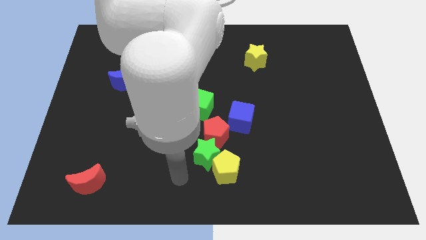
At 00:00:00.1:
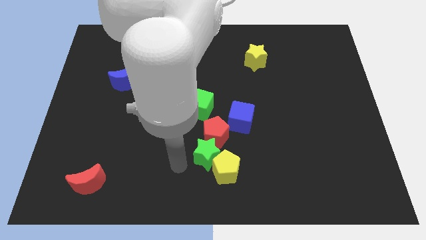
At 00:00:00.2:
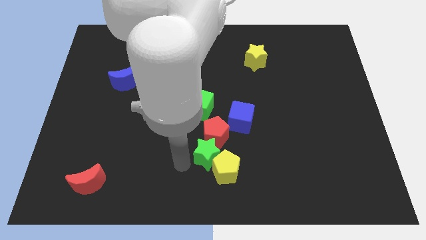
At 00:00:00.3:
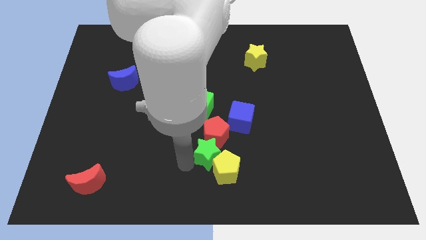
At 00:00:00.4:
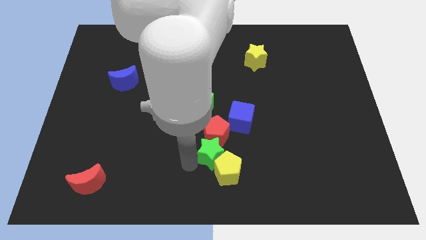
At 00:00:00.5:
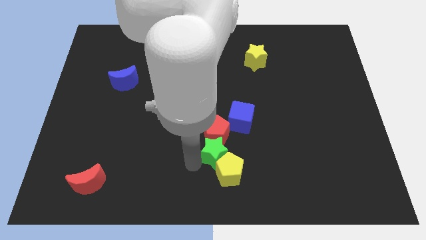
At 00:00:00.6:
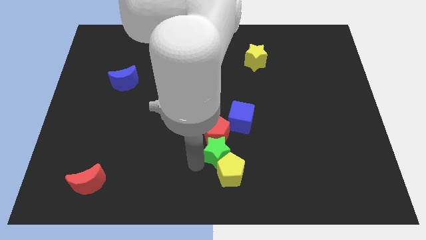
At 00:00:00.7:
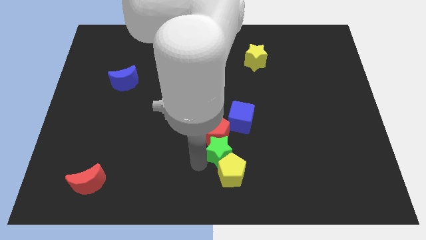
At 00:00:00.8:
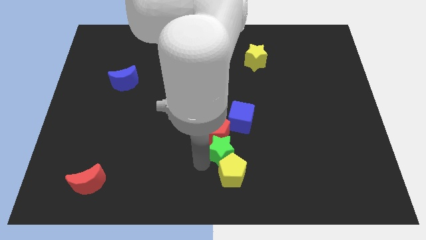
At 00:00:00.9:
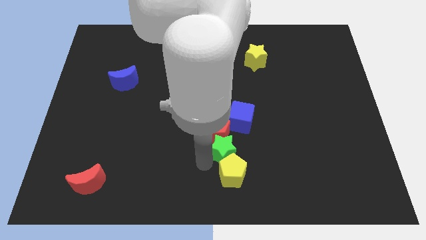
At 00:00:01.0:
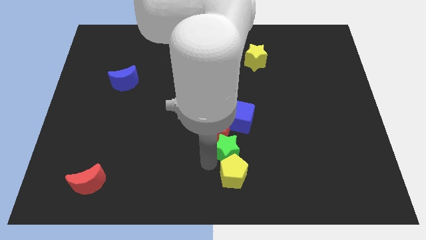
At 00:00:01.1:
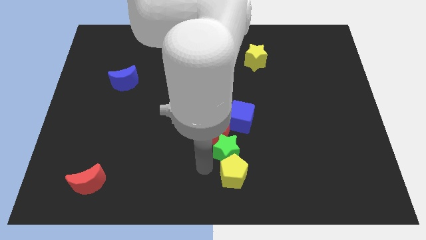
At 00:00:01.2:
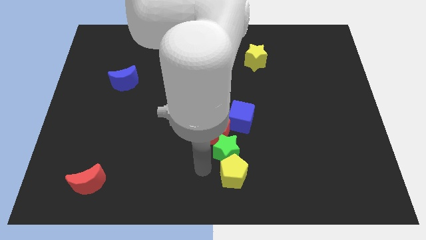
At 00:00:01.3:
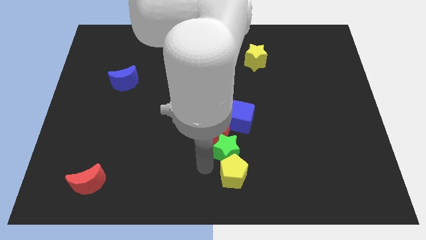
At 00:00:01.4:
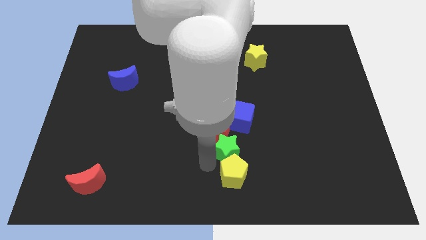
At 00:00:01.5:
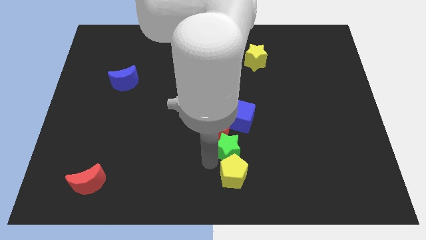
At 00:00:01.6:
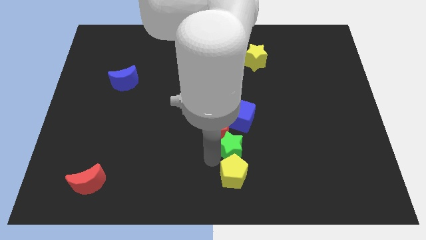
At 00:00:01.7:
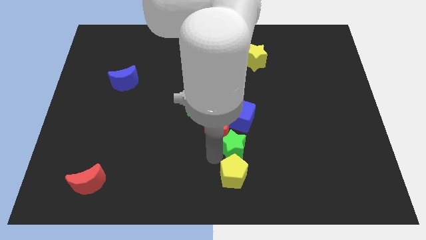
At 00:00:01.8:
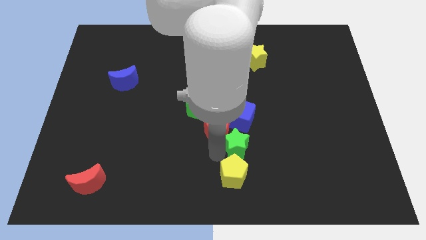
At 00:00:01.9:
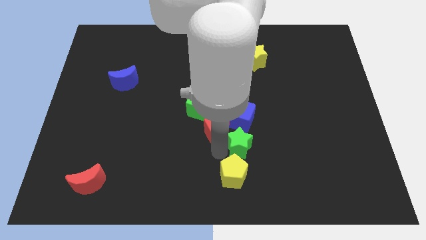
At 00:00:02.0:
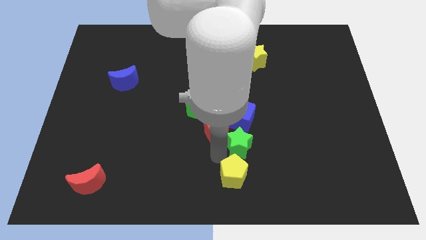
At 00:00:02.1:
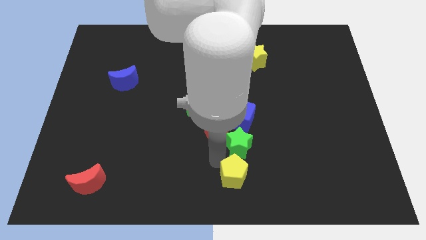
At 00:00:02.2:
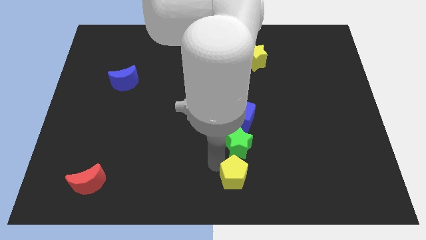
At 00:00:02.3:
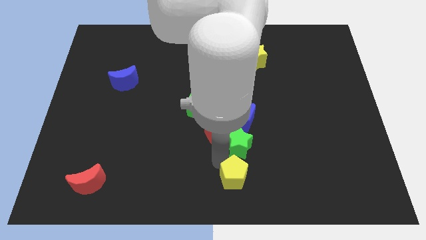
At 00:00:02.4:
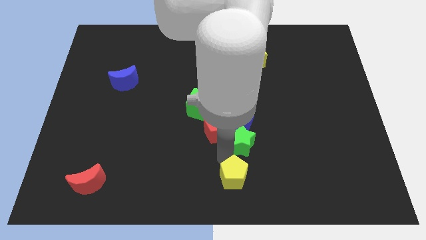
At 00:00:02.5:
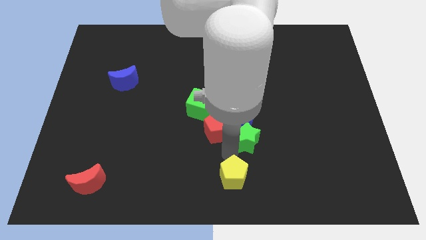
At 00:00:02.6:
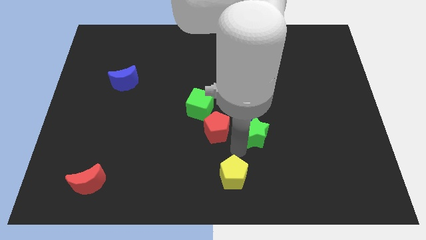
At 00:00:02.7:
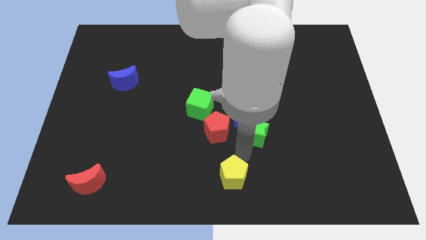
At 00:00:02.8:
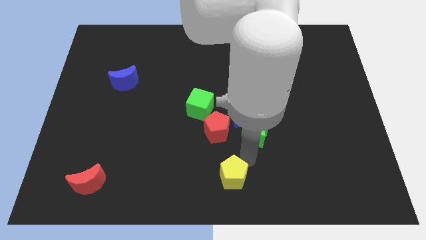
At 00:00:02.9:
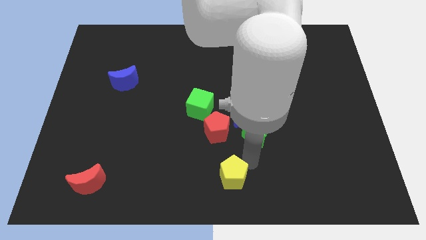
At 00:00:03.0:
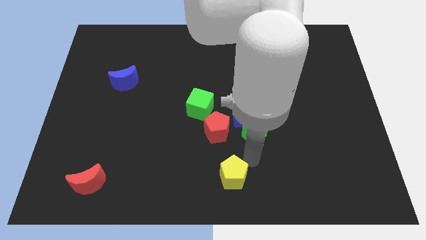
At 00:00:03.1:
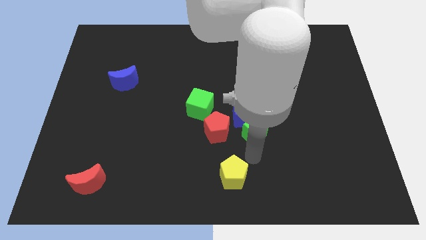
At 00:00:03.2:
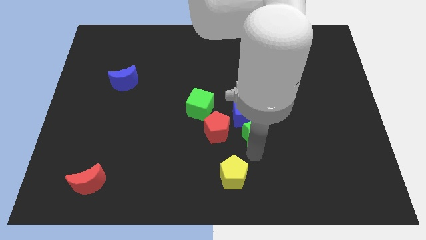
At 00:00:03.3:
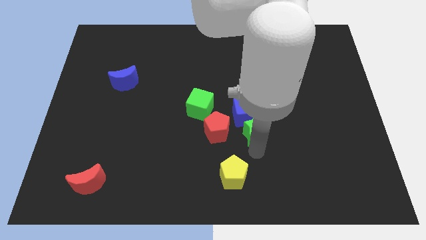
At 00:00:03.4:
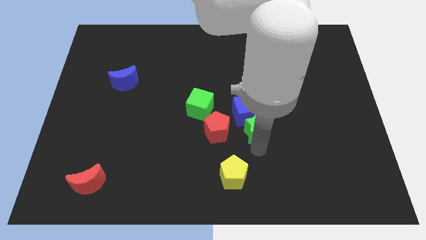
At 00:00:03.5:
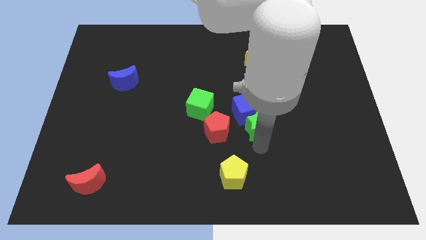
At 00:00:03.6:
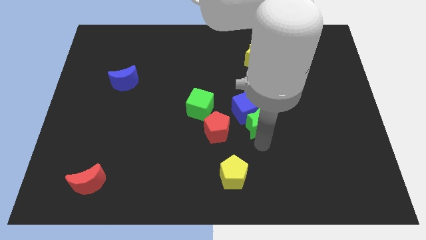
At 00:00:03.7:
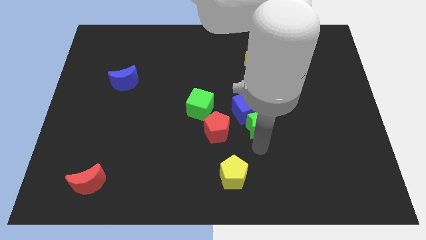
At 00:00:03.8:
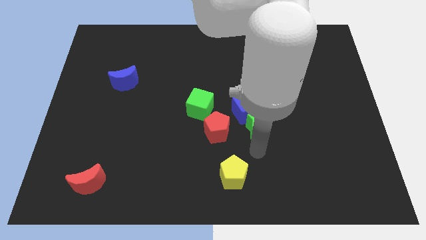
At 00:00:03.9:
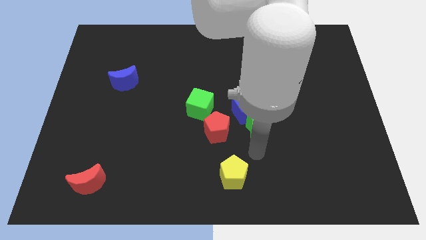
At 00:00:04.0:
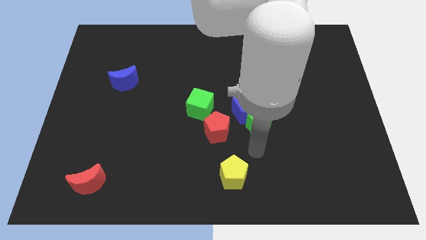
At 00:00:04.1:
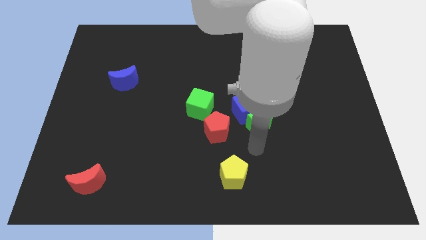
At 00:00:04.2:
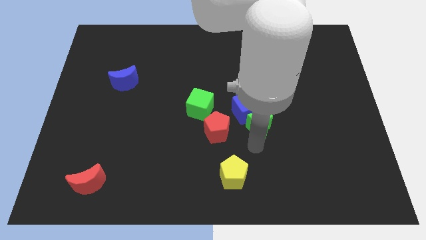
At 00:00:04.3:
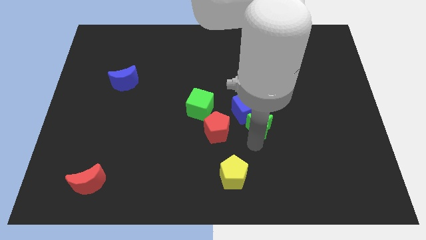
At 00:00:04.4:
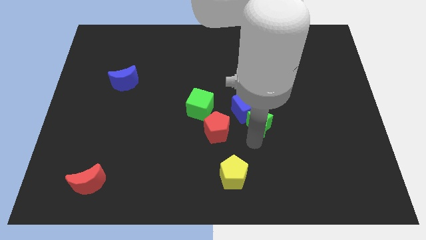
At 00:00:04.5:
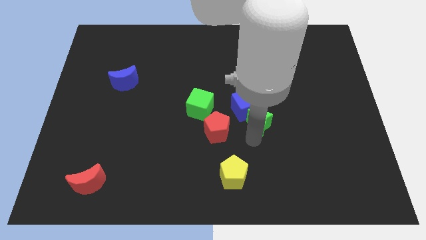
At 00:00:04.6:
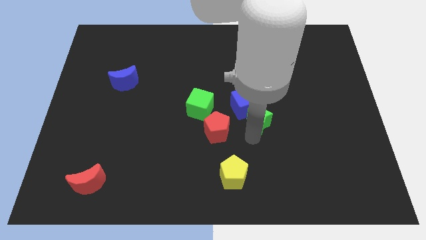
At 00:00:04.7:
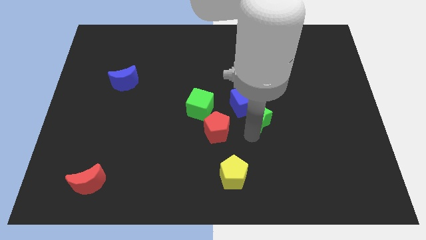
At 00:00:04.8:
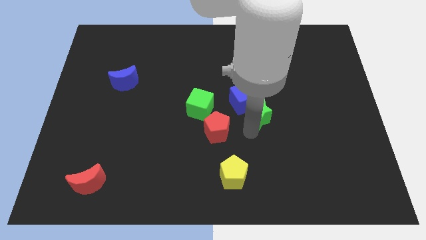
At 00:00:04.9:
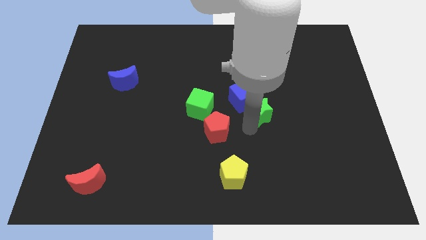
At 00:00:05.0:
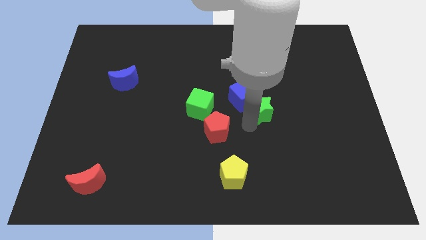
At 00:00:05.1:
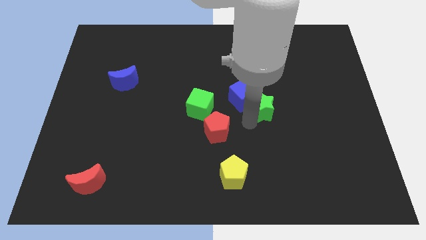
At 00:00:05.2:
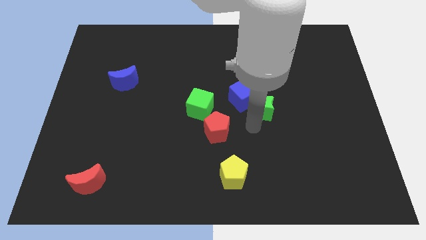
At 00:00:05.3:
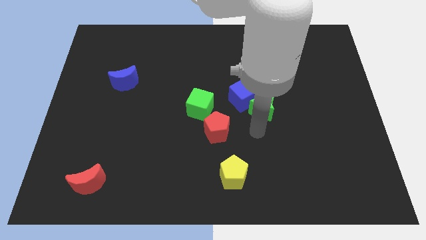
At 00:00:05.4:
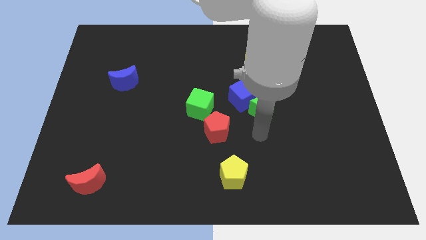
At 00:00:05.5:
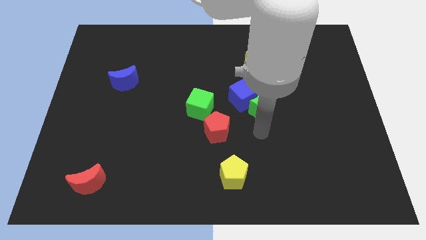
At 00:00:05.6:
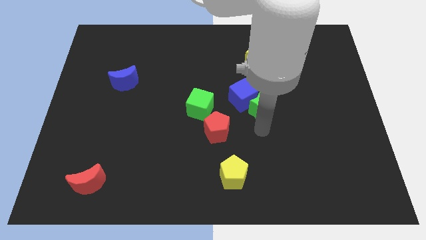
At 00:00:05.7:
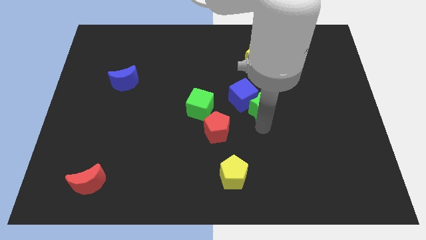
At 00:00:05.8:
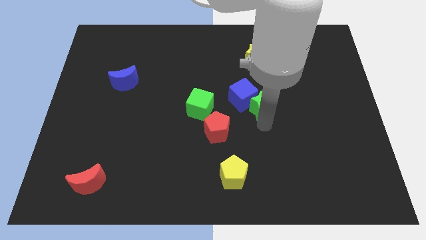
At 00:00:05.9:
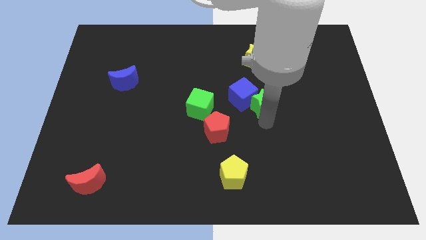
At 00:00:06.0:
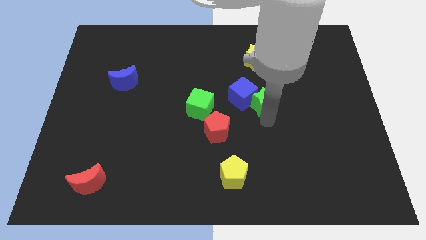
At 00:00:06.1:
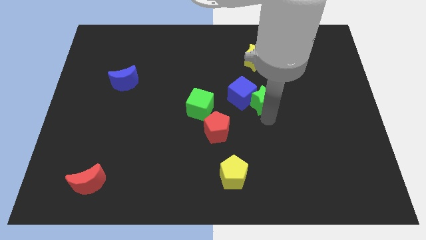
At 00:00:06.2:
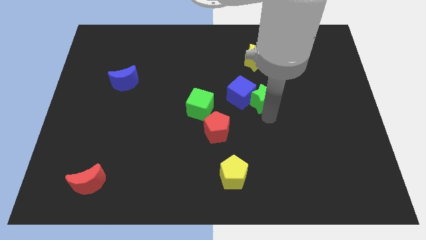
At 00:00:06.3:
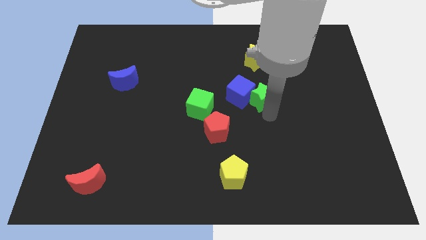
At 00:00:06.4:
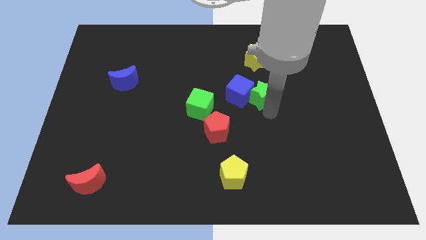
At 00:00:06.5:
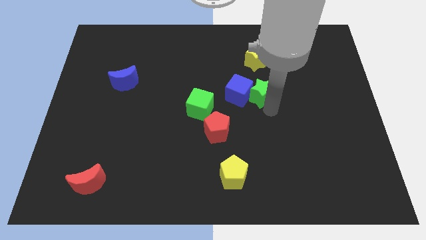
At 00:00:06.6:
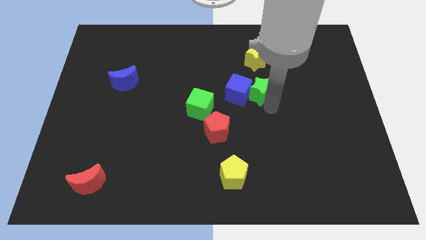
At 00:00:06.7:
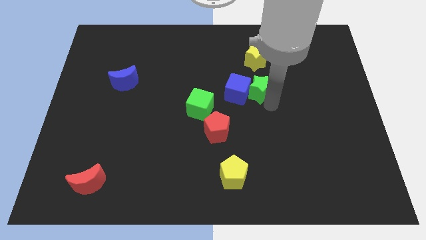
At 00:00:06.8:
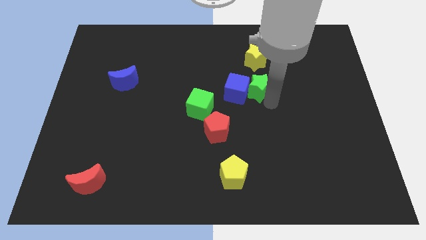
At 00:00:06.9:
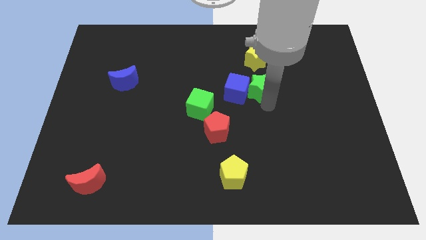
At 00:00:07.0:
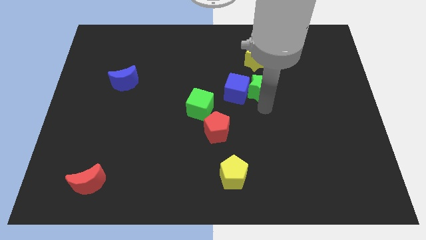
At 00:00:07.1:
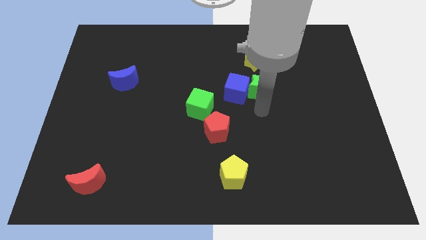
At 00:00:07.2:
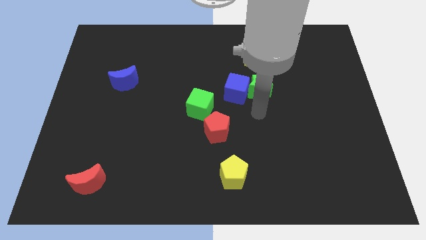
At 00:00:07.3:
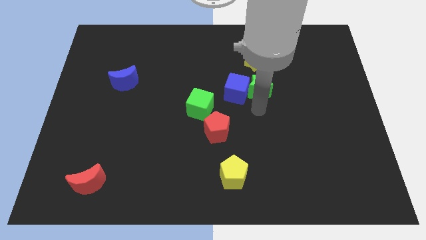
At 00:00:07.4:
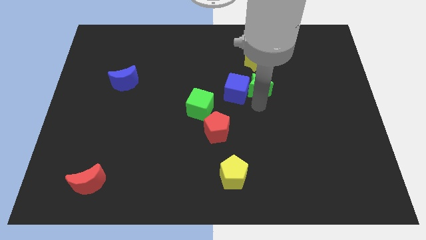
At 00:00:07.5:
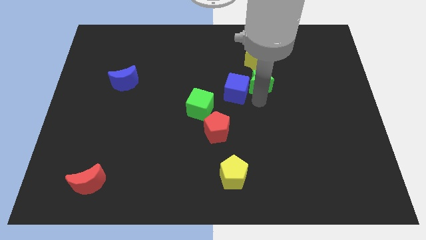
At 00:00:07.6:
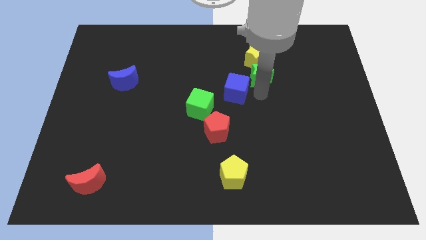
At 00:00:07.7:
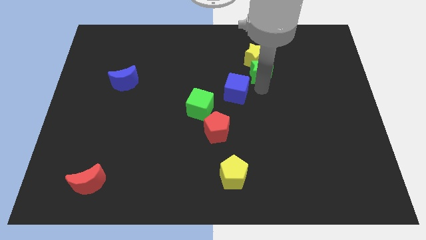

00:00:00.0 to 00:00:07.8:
push the green star close to the yellow star

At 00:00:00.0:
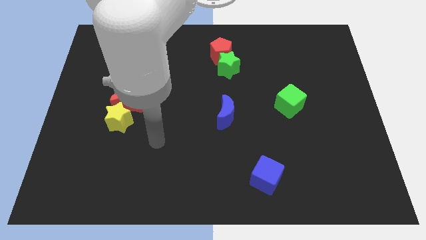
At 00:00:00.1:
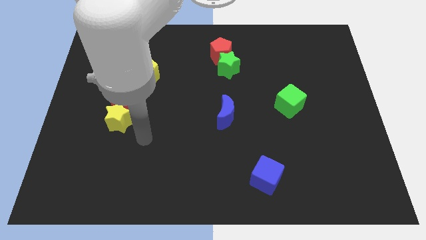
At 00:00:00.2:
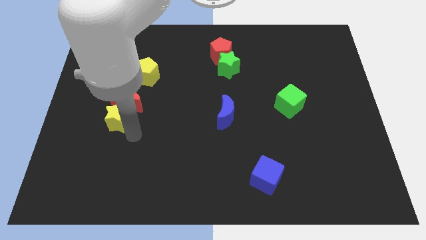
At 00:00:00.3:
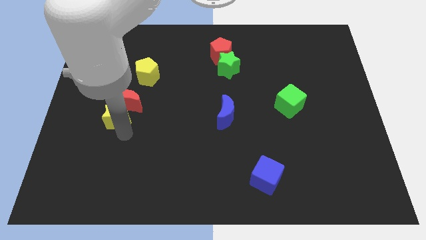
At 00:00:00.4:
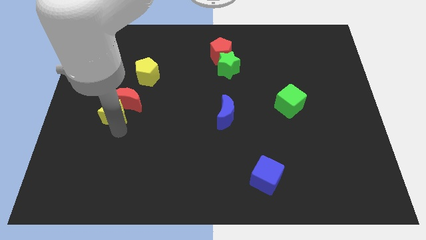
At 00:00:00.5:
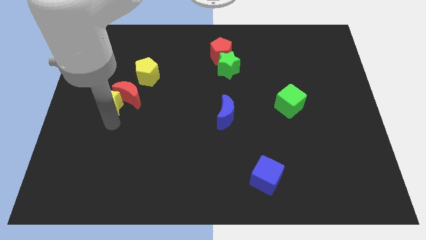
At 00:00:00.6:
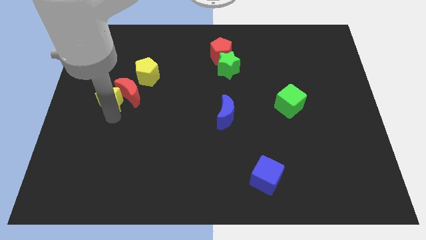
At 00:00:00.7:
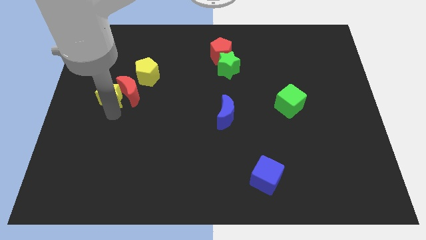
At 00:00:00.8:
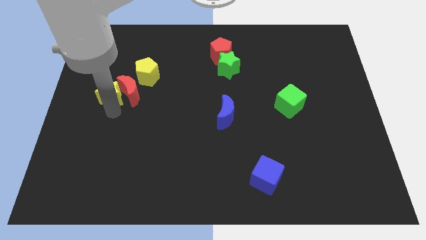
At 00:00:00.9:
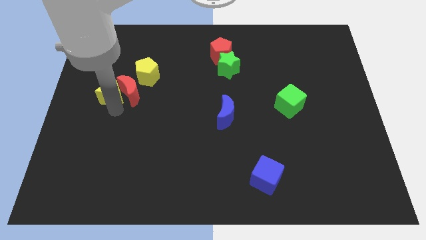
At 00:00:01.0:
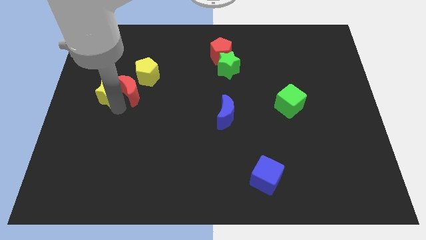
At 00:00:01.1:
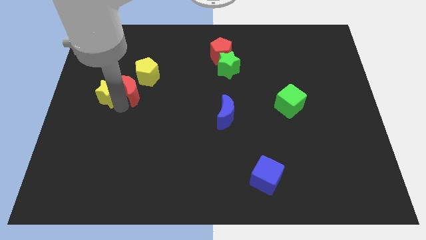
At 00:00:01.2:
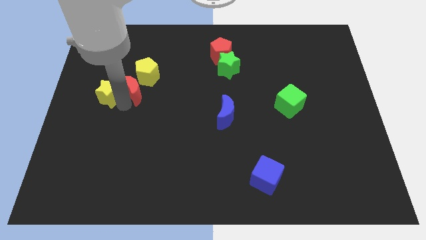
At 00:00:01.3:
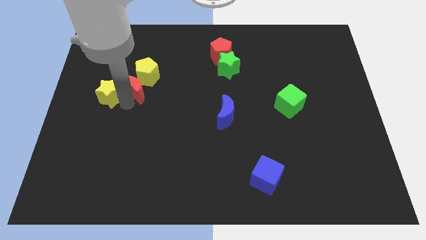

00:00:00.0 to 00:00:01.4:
move the red moon close to the yellow pentagon
